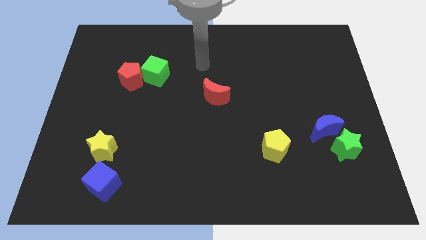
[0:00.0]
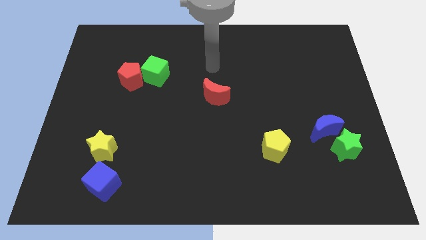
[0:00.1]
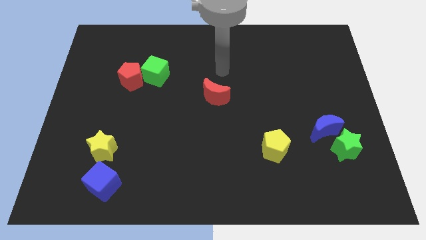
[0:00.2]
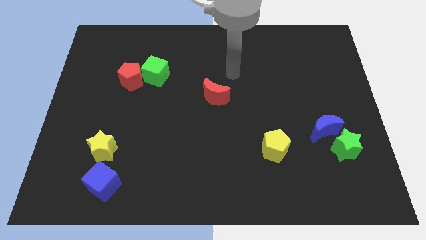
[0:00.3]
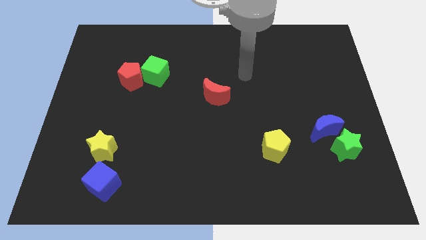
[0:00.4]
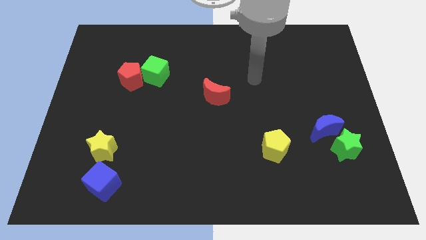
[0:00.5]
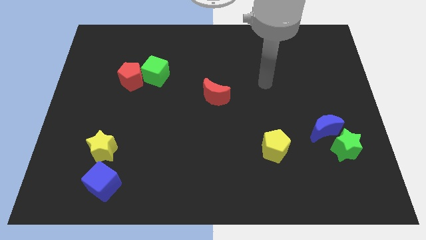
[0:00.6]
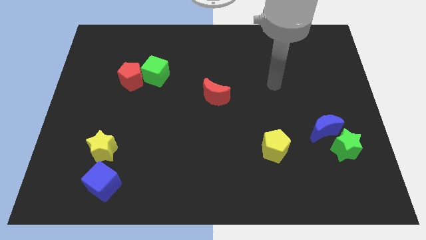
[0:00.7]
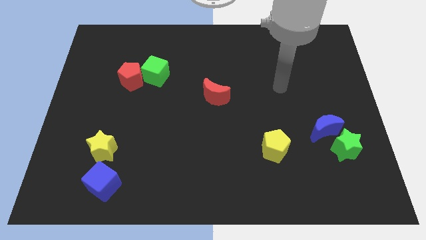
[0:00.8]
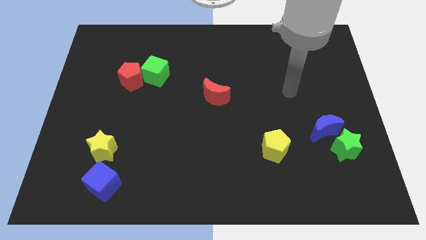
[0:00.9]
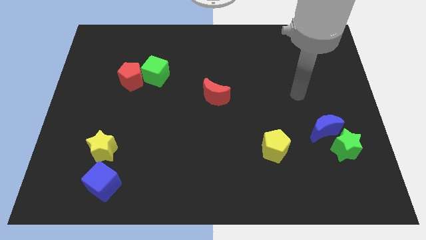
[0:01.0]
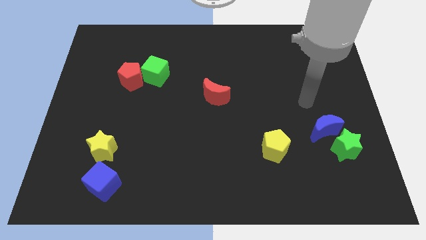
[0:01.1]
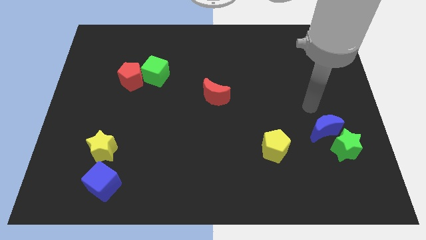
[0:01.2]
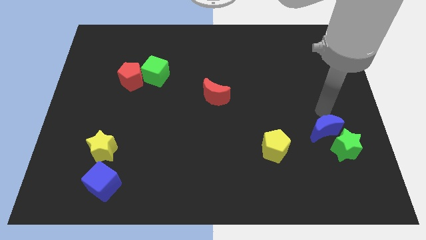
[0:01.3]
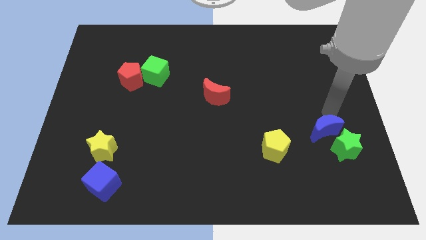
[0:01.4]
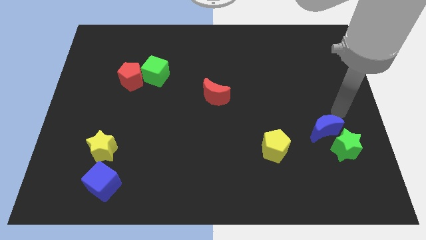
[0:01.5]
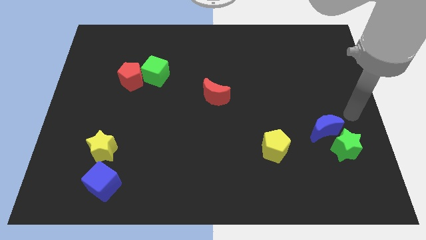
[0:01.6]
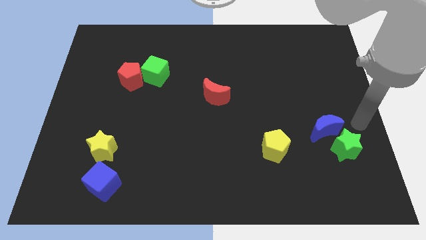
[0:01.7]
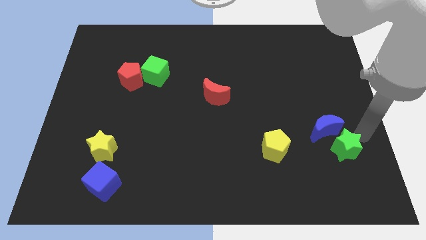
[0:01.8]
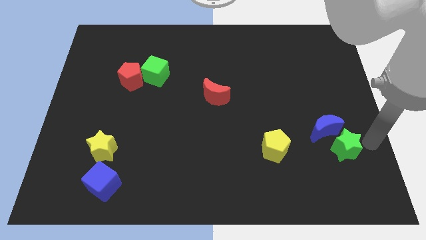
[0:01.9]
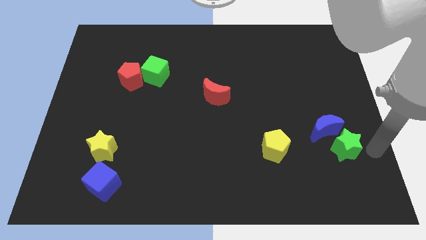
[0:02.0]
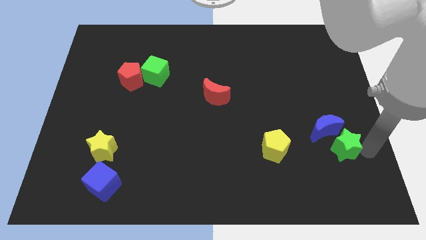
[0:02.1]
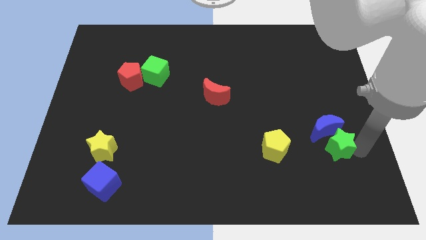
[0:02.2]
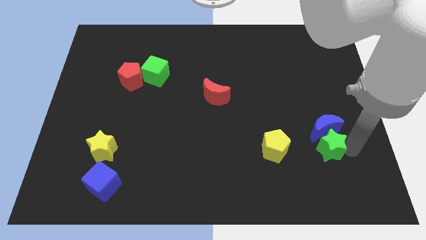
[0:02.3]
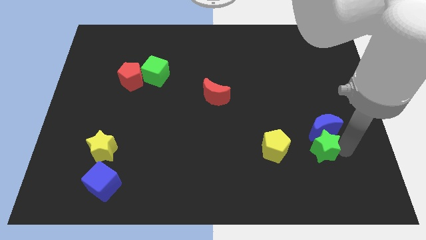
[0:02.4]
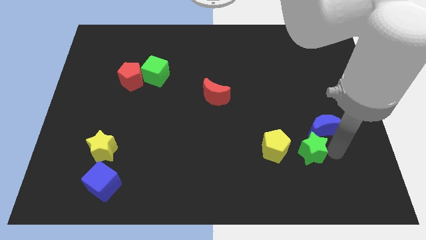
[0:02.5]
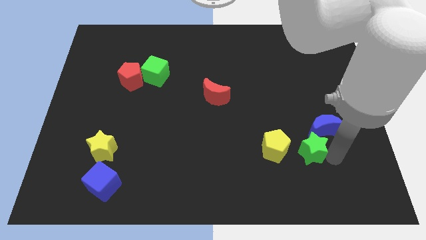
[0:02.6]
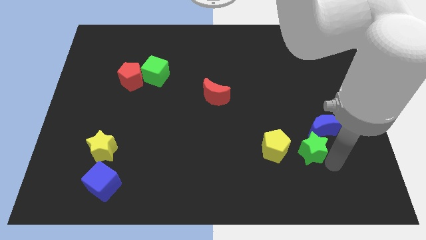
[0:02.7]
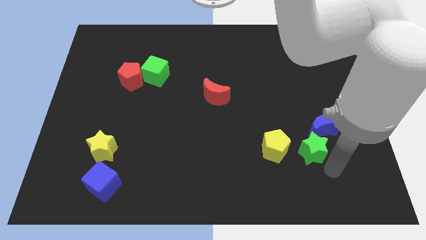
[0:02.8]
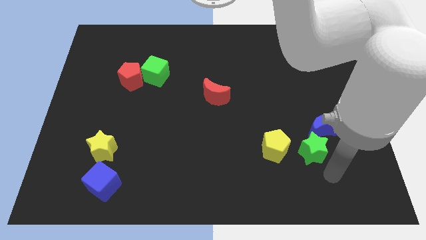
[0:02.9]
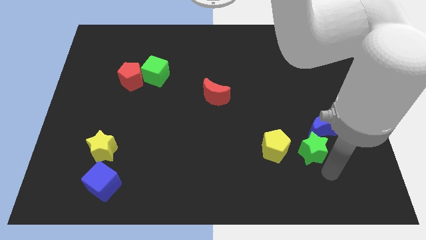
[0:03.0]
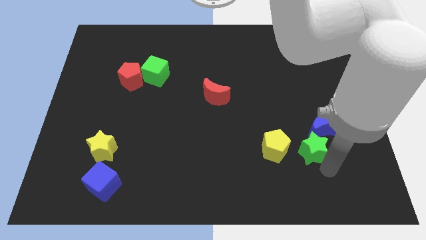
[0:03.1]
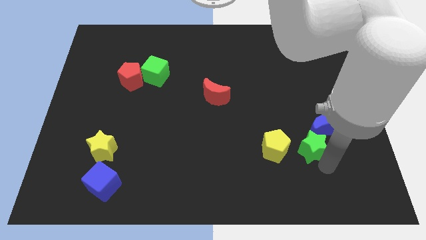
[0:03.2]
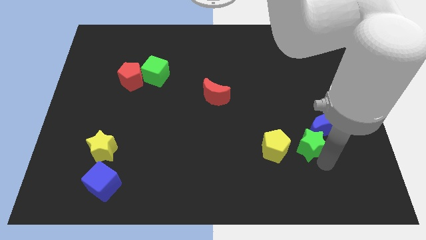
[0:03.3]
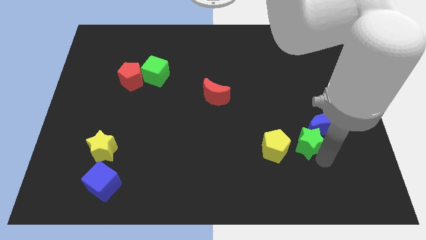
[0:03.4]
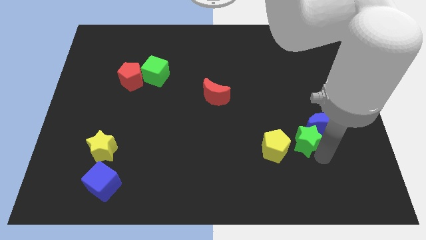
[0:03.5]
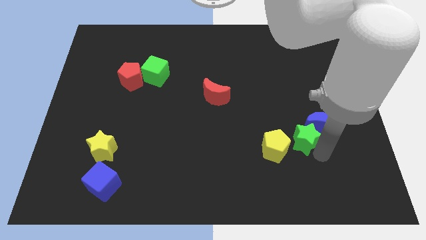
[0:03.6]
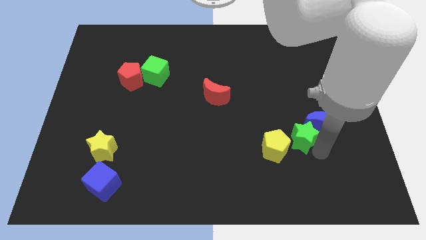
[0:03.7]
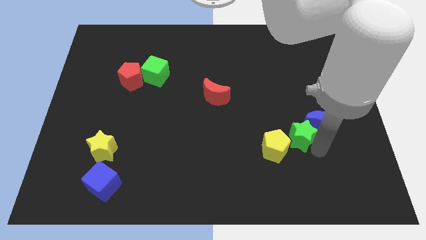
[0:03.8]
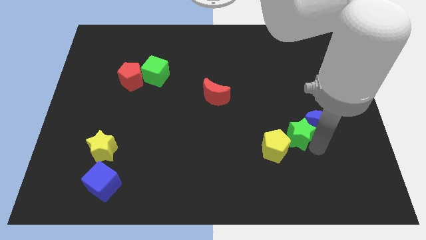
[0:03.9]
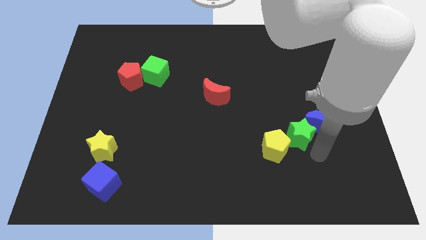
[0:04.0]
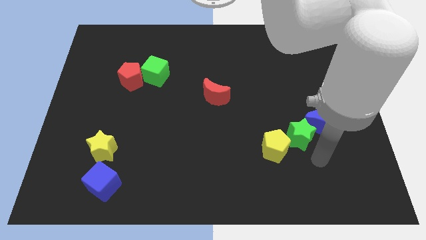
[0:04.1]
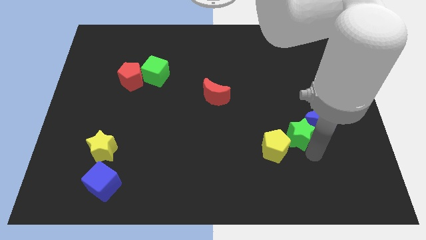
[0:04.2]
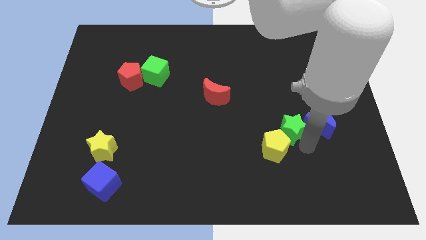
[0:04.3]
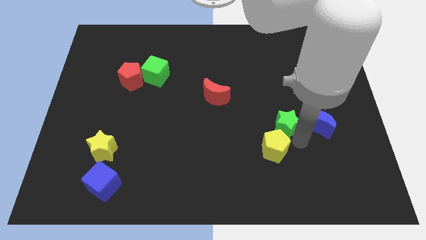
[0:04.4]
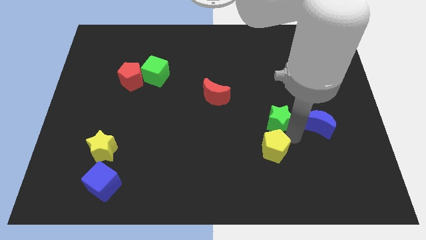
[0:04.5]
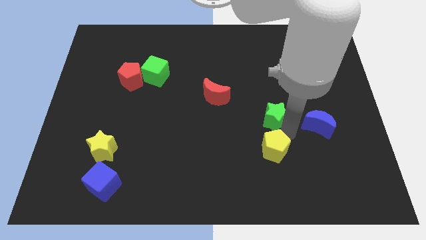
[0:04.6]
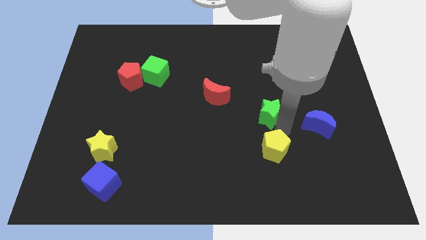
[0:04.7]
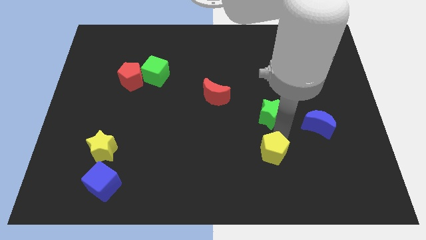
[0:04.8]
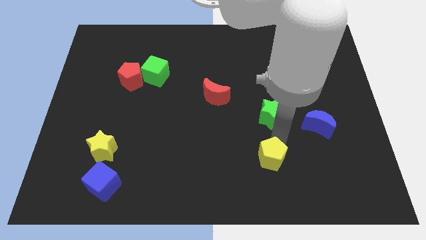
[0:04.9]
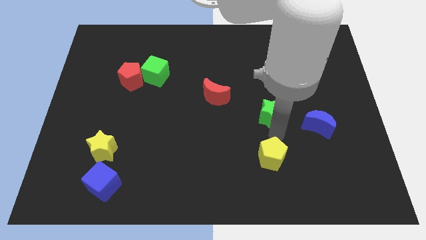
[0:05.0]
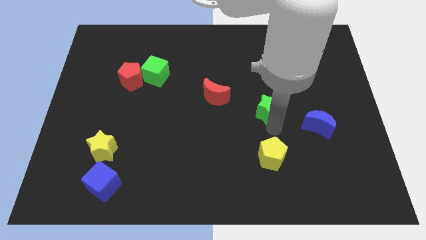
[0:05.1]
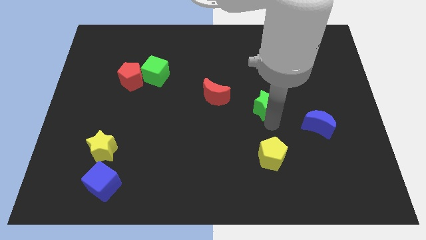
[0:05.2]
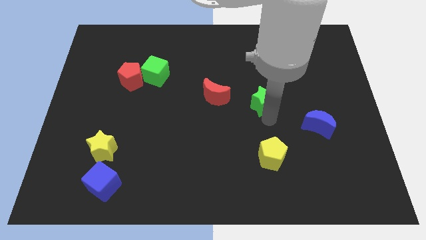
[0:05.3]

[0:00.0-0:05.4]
slide the green star up and left diagonally

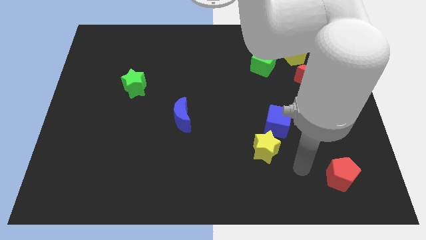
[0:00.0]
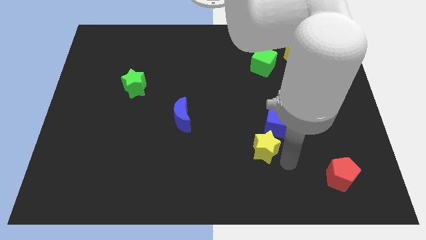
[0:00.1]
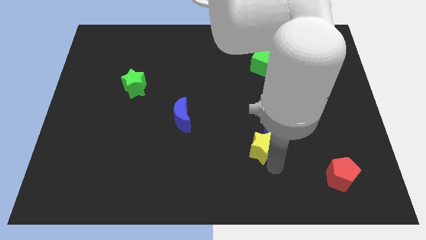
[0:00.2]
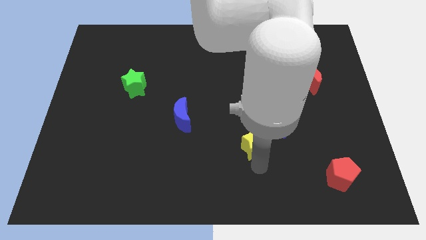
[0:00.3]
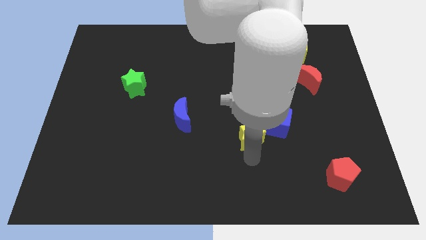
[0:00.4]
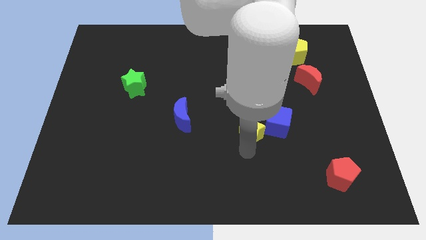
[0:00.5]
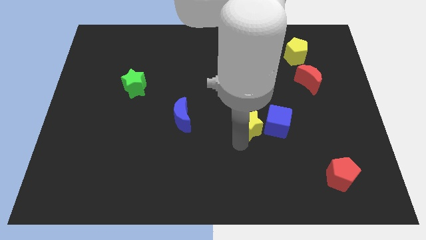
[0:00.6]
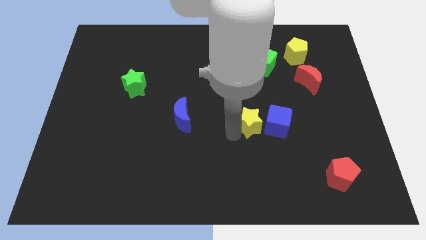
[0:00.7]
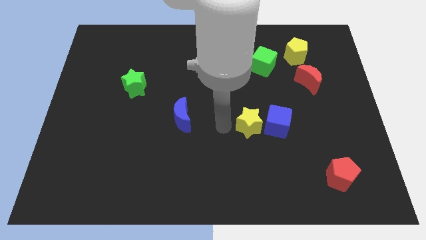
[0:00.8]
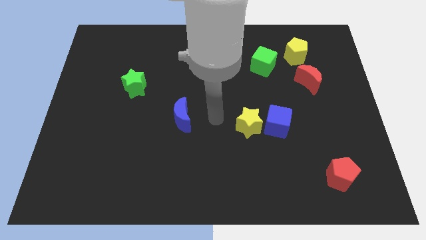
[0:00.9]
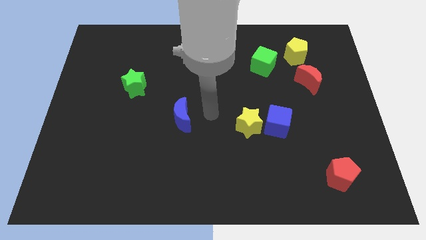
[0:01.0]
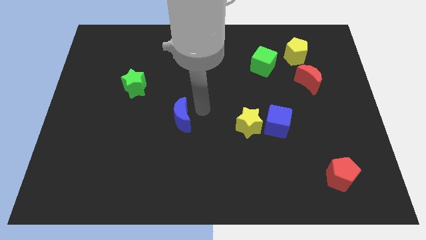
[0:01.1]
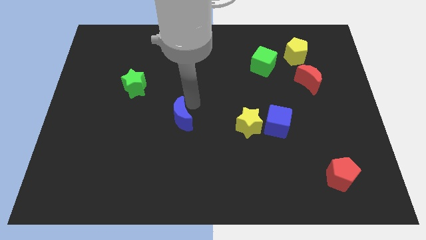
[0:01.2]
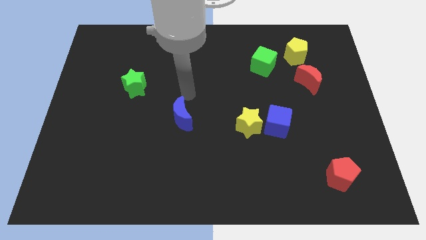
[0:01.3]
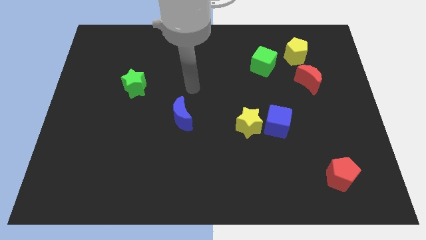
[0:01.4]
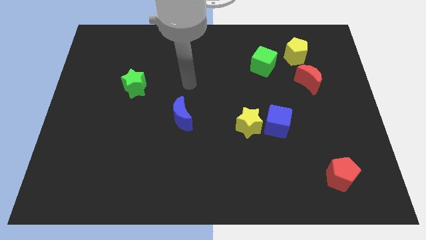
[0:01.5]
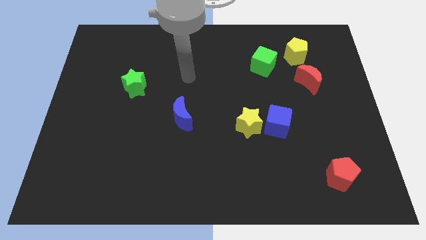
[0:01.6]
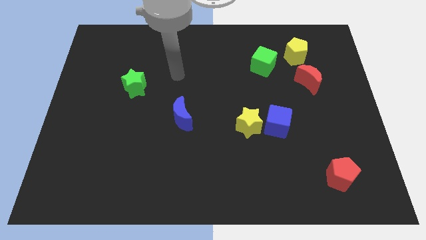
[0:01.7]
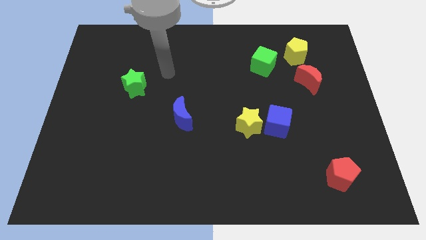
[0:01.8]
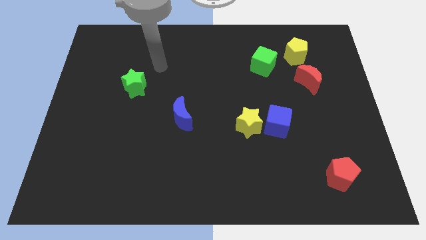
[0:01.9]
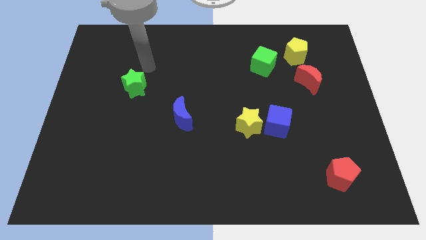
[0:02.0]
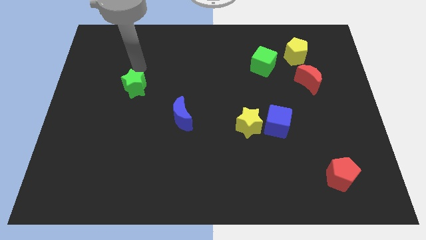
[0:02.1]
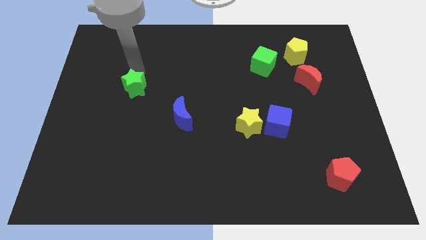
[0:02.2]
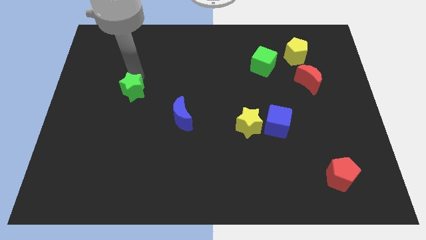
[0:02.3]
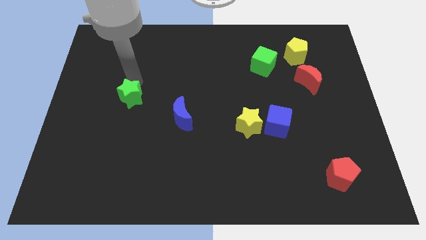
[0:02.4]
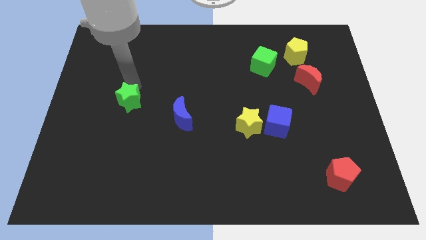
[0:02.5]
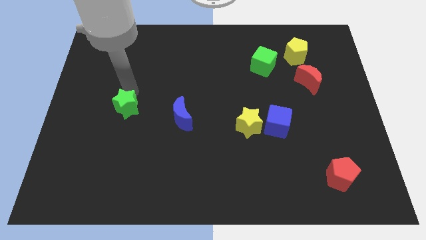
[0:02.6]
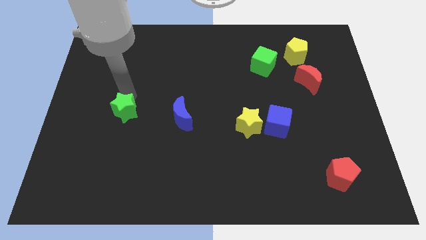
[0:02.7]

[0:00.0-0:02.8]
slide the green star a bit down
